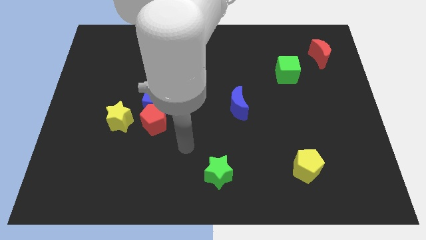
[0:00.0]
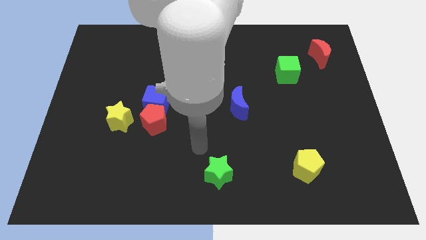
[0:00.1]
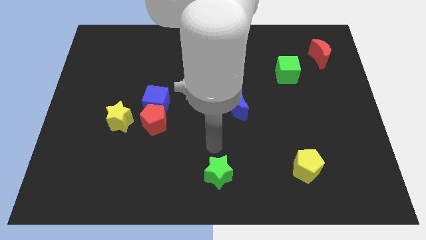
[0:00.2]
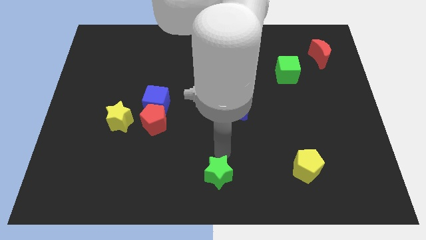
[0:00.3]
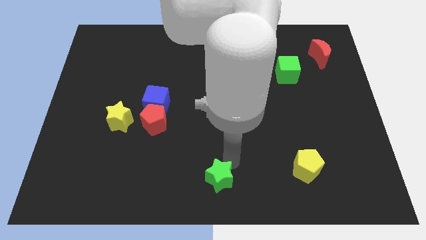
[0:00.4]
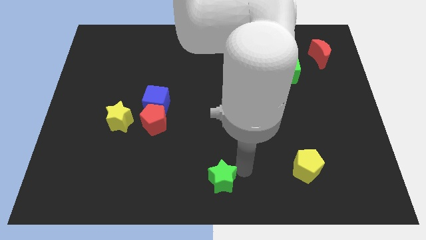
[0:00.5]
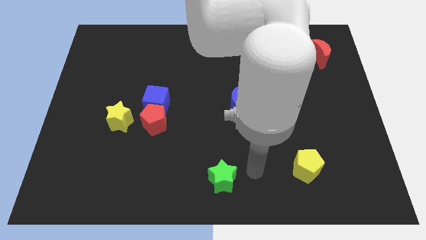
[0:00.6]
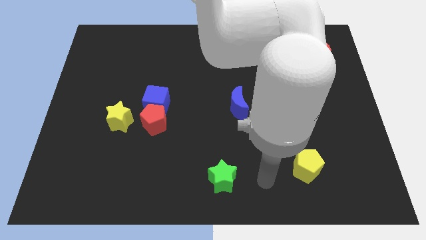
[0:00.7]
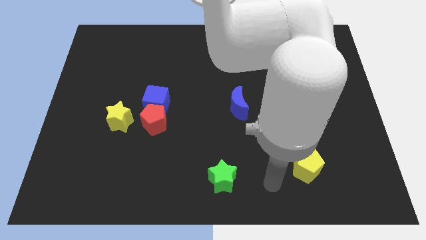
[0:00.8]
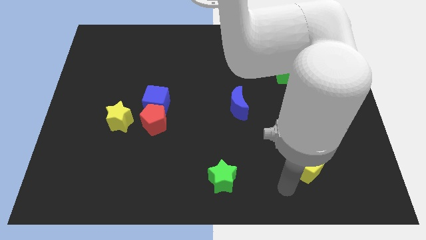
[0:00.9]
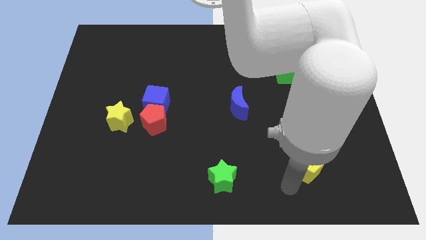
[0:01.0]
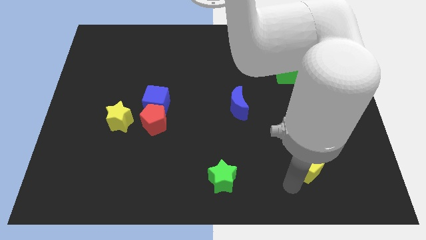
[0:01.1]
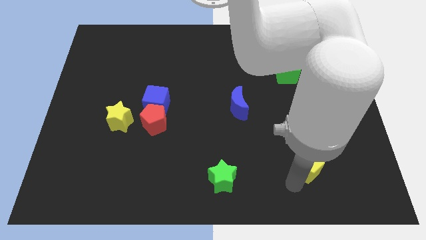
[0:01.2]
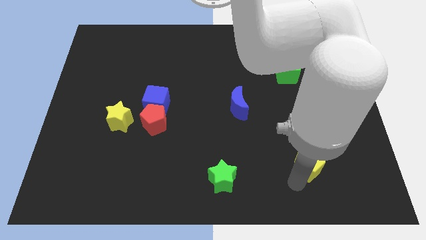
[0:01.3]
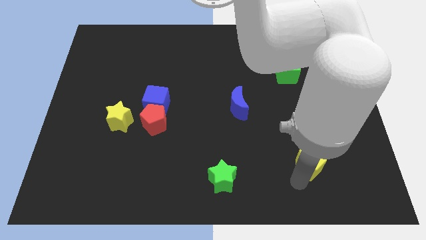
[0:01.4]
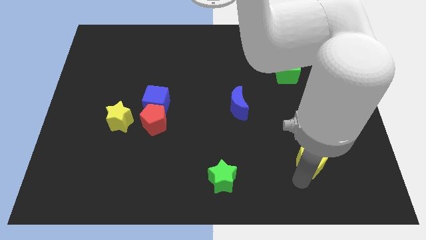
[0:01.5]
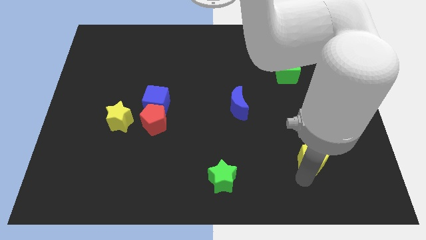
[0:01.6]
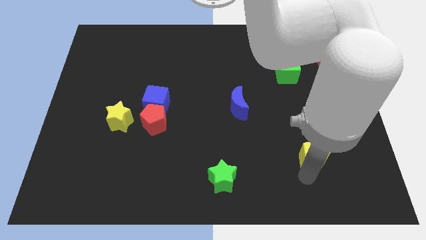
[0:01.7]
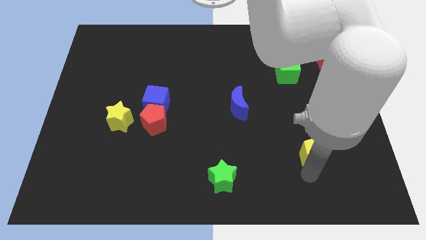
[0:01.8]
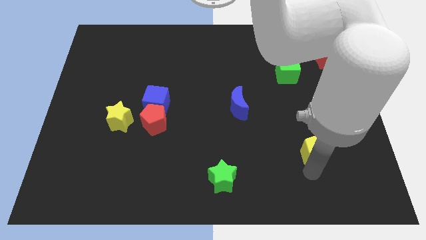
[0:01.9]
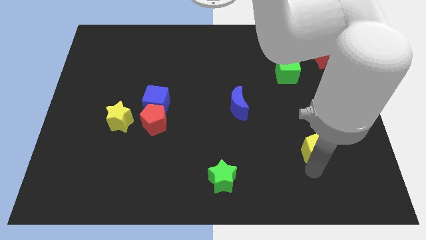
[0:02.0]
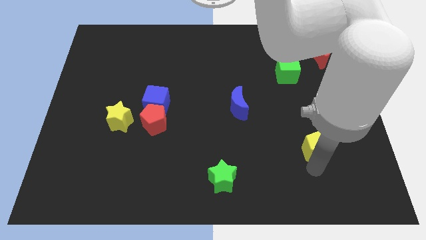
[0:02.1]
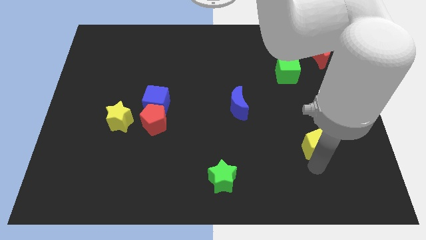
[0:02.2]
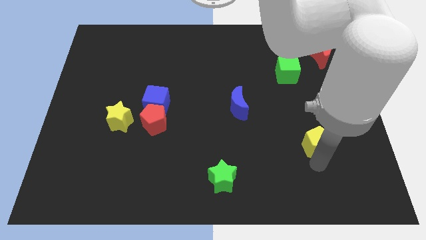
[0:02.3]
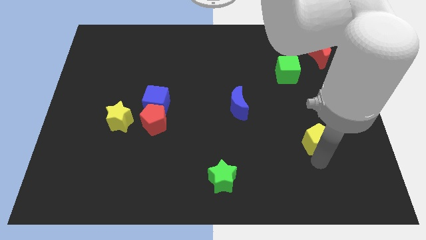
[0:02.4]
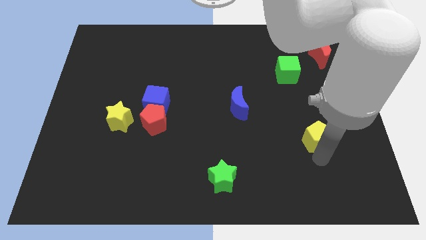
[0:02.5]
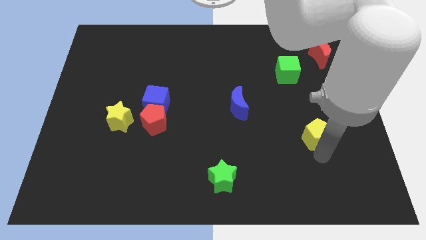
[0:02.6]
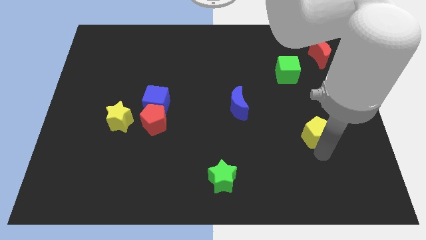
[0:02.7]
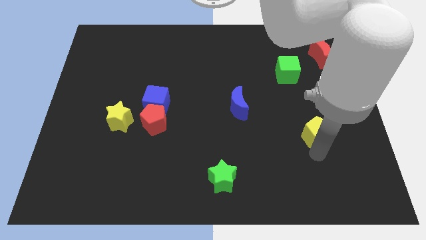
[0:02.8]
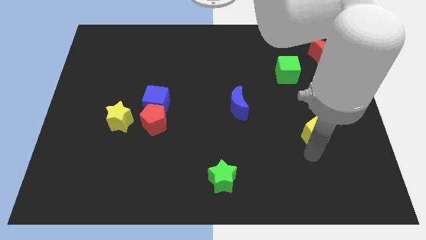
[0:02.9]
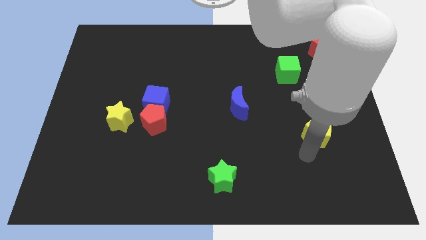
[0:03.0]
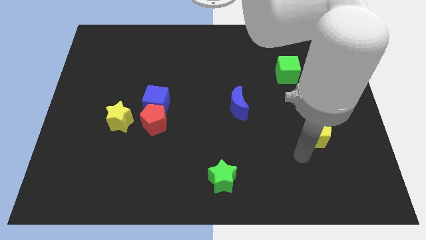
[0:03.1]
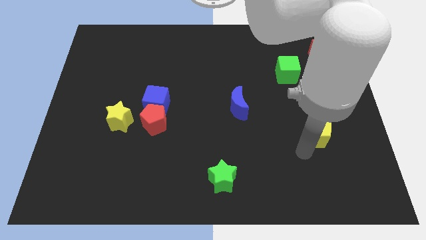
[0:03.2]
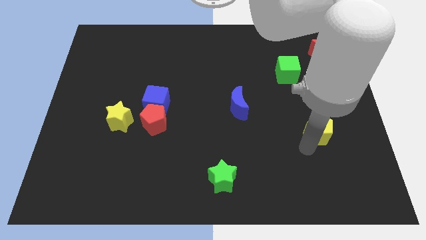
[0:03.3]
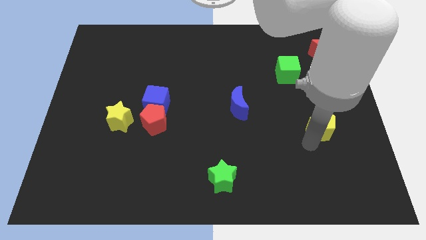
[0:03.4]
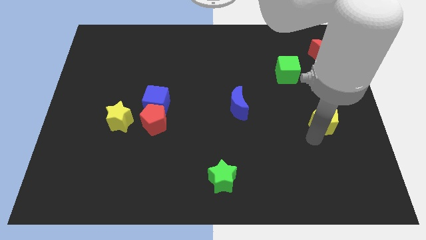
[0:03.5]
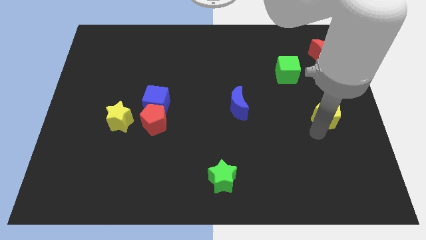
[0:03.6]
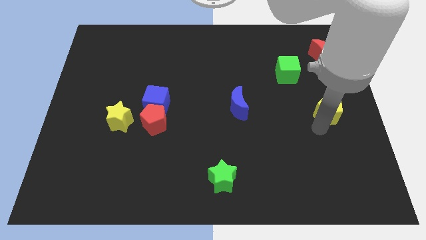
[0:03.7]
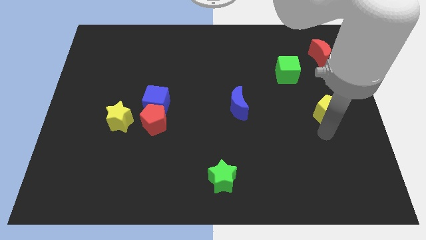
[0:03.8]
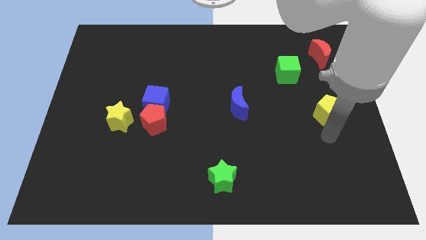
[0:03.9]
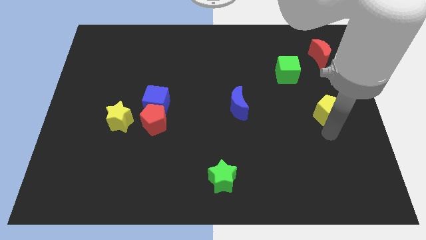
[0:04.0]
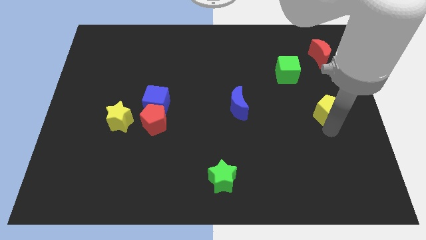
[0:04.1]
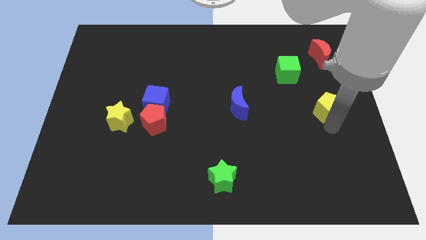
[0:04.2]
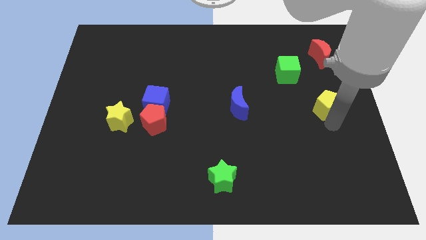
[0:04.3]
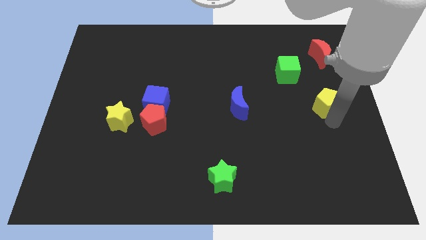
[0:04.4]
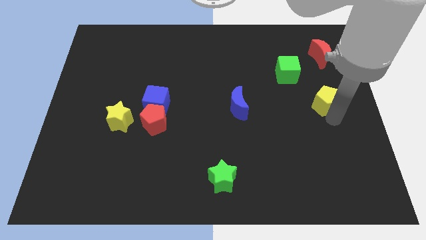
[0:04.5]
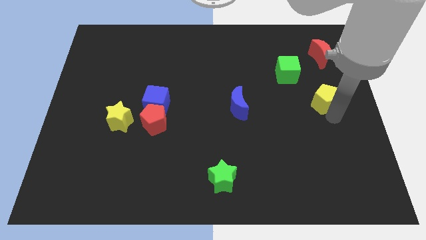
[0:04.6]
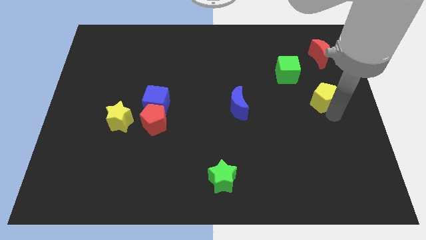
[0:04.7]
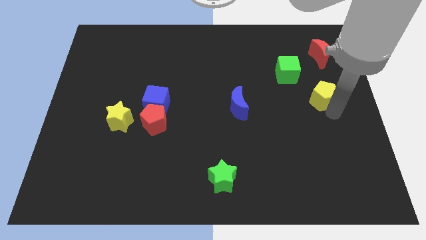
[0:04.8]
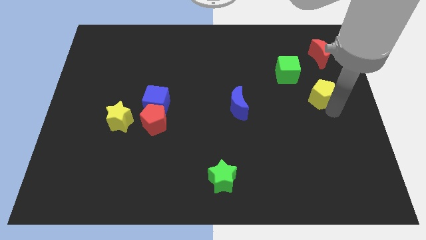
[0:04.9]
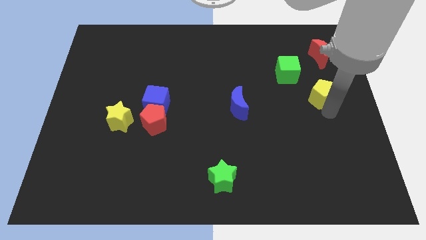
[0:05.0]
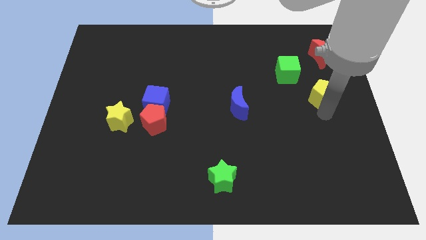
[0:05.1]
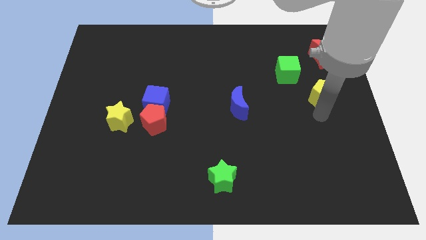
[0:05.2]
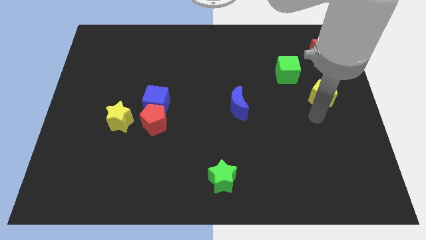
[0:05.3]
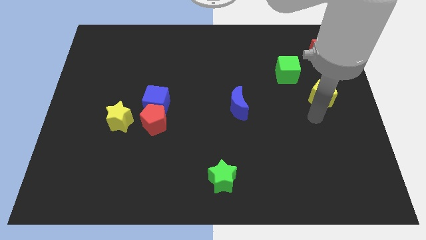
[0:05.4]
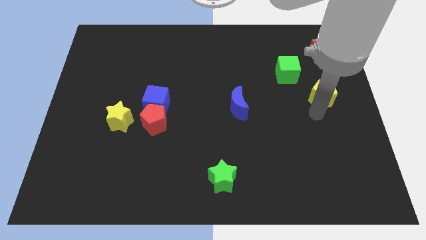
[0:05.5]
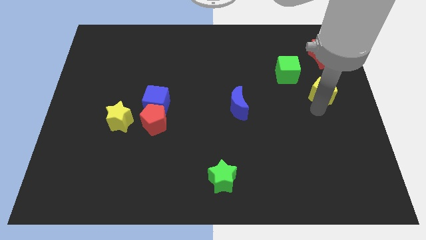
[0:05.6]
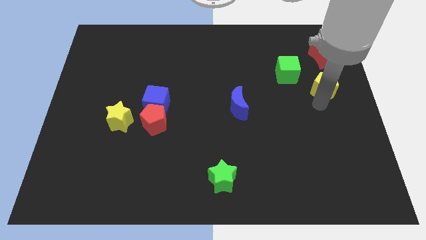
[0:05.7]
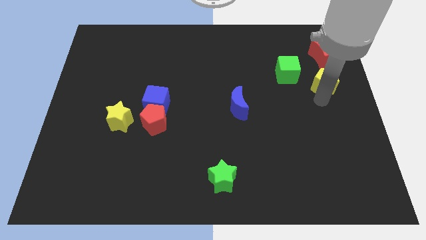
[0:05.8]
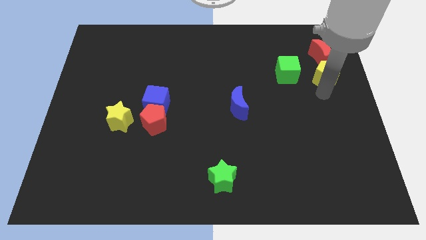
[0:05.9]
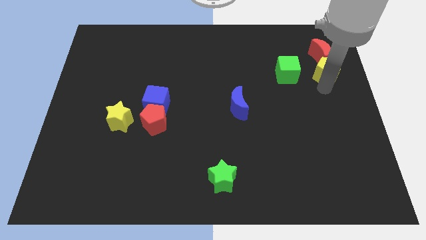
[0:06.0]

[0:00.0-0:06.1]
move the yellow pentagon towards the red moon

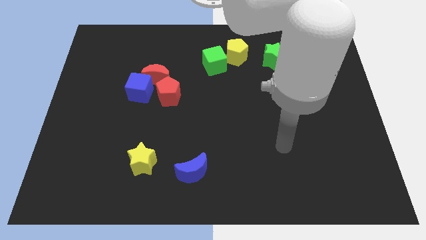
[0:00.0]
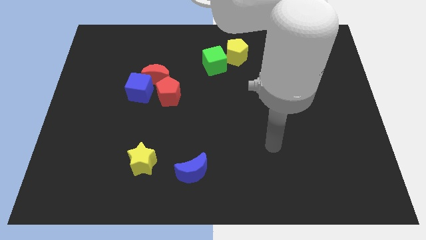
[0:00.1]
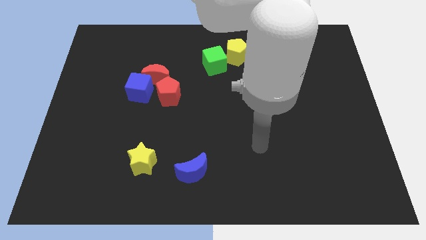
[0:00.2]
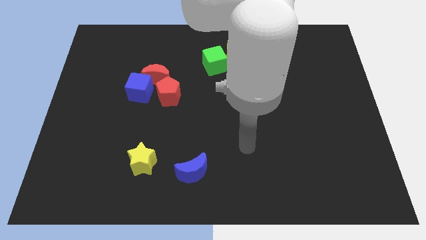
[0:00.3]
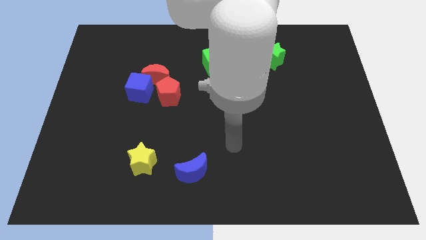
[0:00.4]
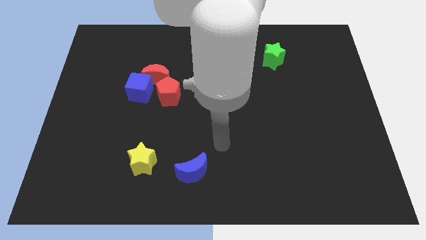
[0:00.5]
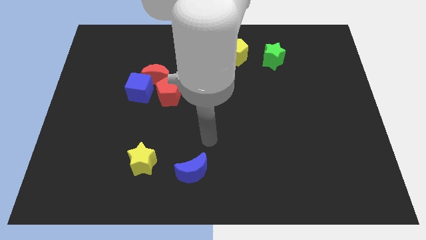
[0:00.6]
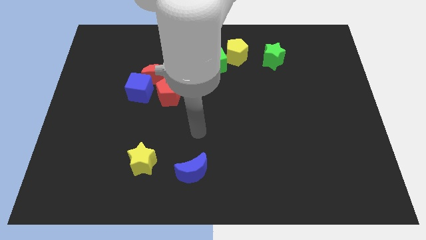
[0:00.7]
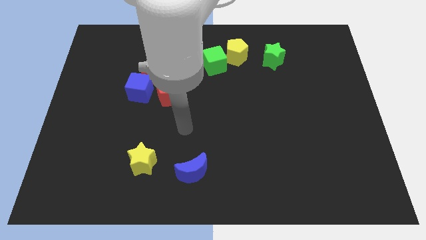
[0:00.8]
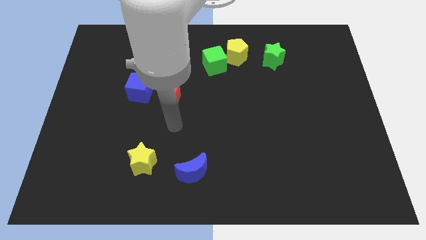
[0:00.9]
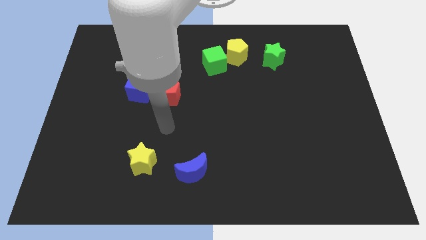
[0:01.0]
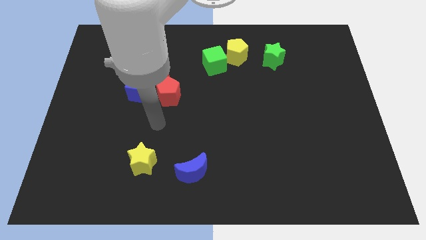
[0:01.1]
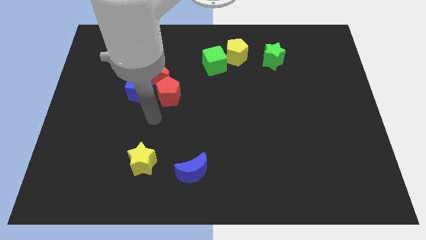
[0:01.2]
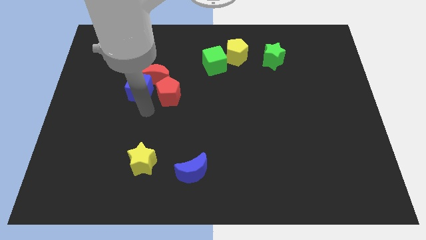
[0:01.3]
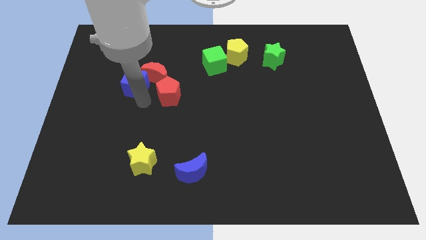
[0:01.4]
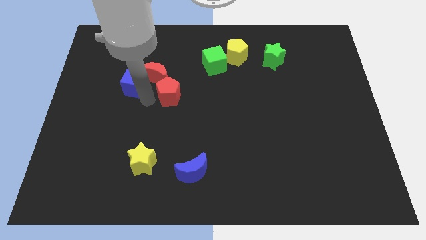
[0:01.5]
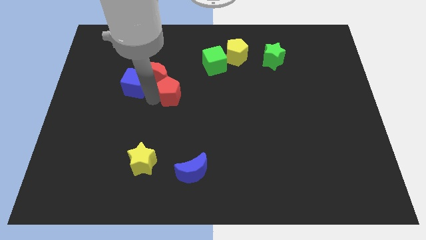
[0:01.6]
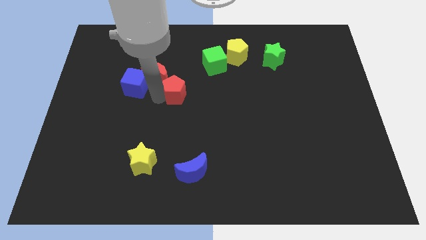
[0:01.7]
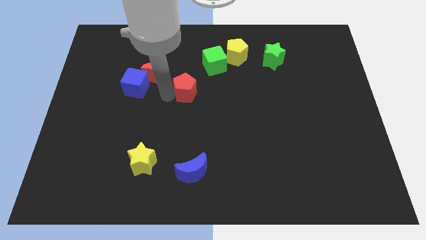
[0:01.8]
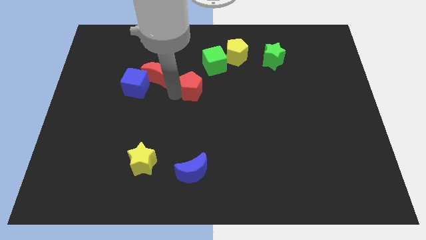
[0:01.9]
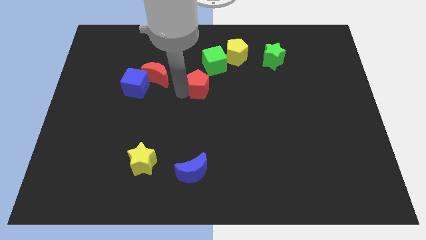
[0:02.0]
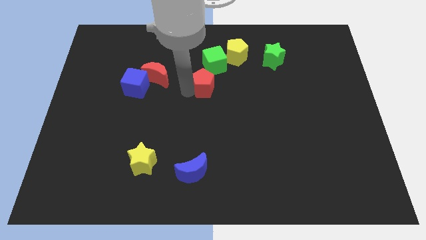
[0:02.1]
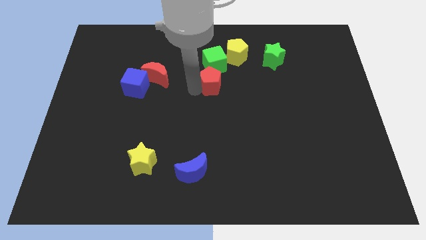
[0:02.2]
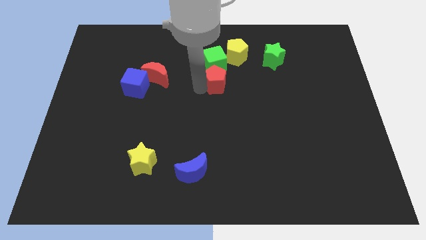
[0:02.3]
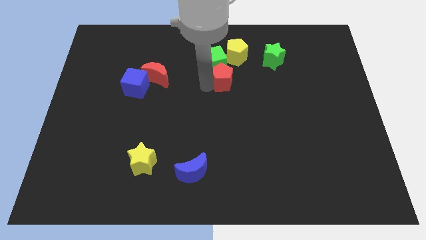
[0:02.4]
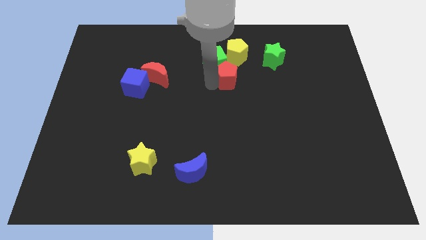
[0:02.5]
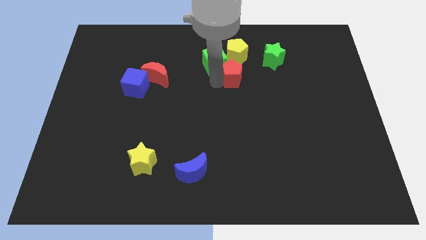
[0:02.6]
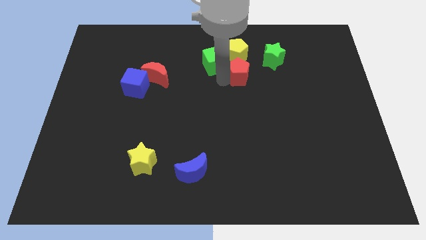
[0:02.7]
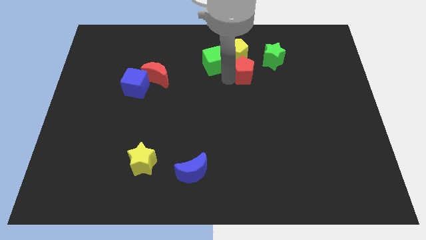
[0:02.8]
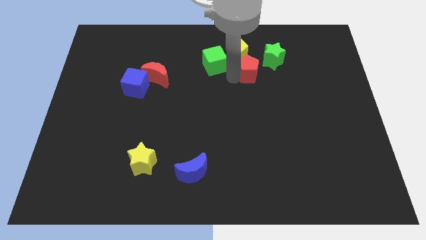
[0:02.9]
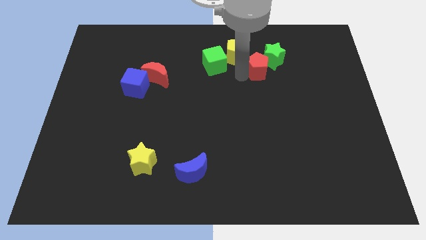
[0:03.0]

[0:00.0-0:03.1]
move the red pentagon close to the green star
